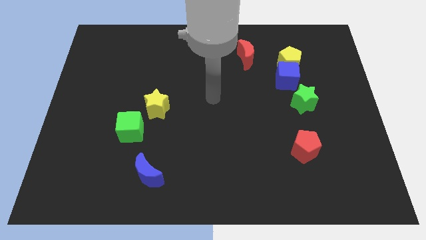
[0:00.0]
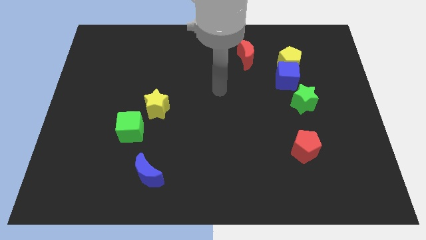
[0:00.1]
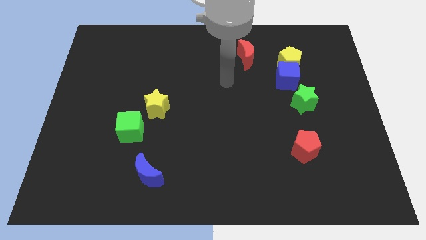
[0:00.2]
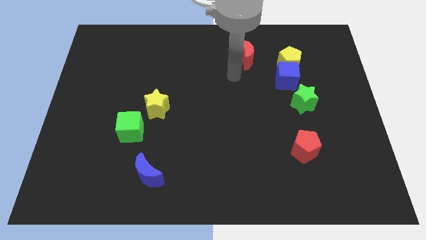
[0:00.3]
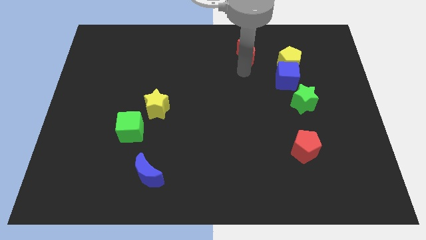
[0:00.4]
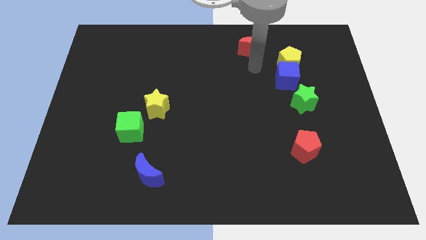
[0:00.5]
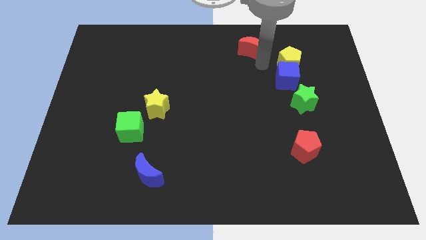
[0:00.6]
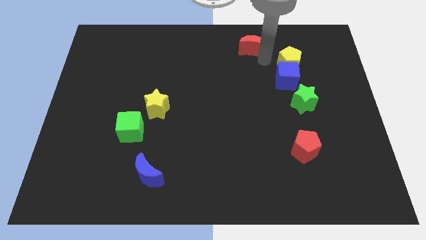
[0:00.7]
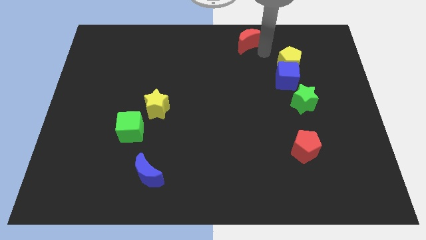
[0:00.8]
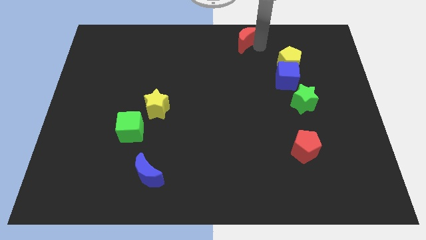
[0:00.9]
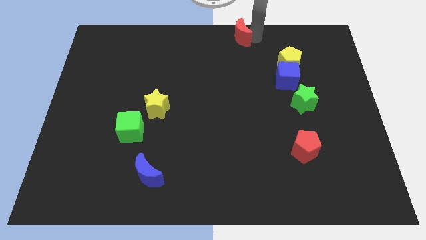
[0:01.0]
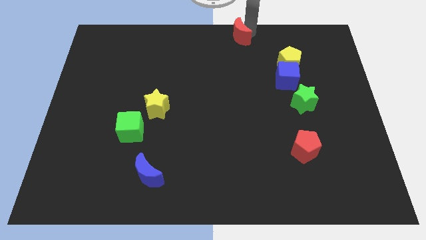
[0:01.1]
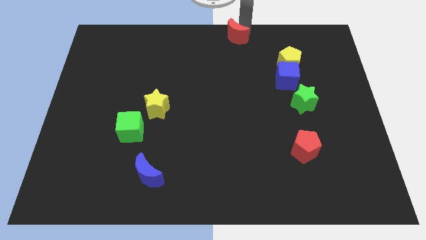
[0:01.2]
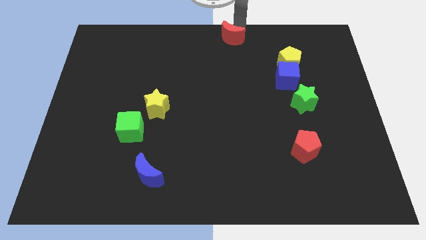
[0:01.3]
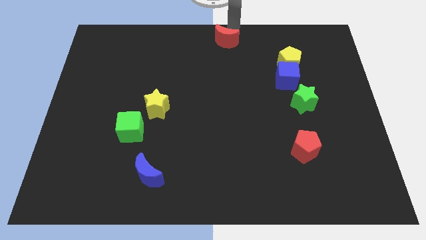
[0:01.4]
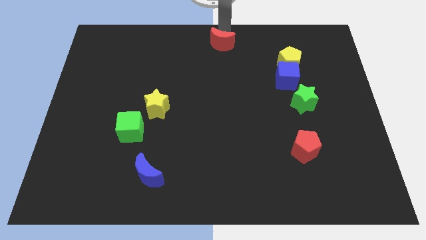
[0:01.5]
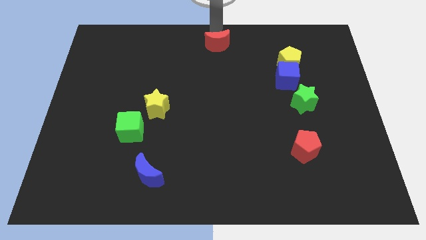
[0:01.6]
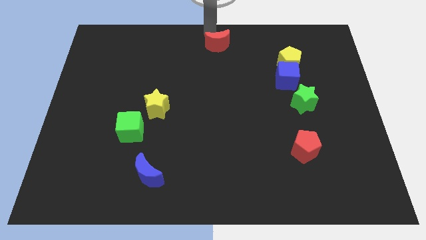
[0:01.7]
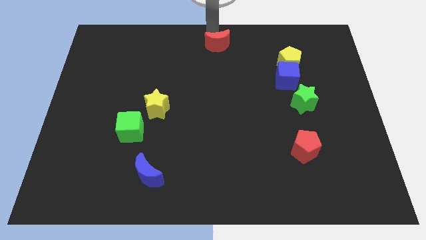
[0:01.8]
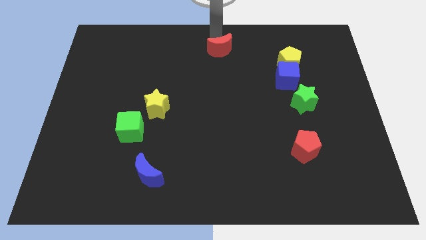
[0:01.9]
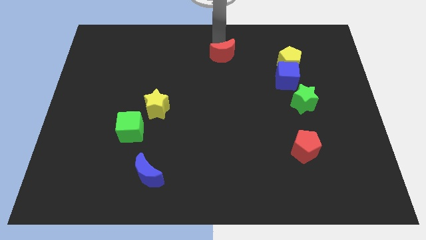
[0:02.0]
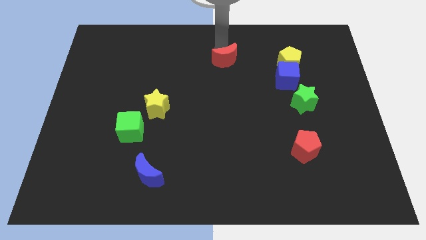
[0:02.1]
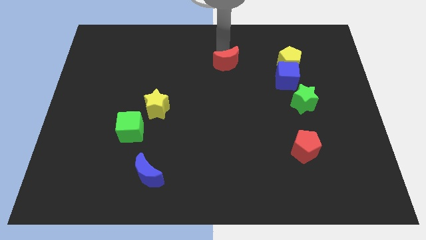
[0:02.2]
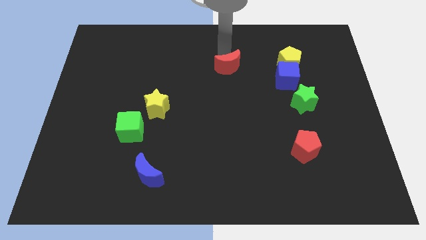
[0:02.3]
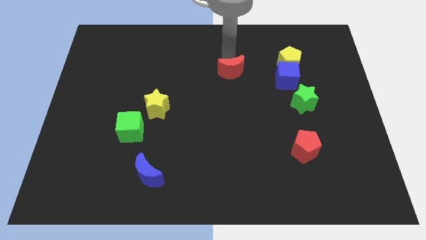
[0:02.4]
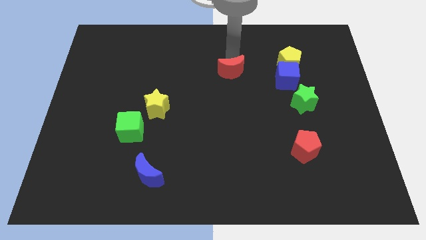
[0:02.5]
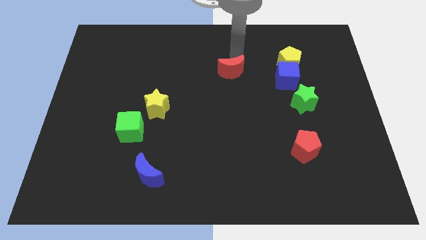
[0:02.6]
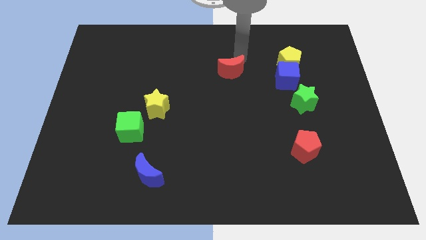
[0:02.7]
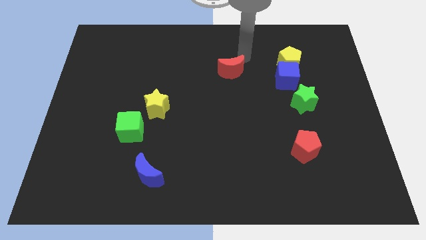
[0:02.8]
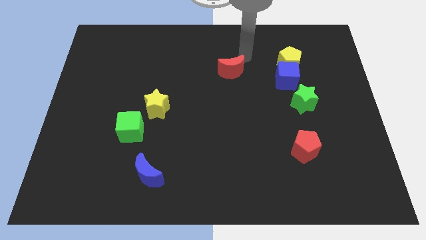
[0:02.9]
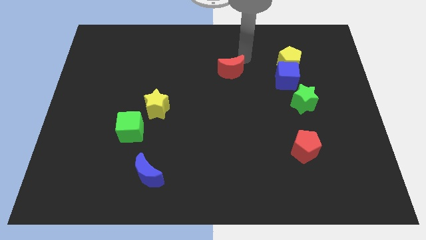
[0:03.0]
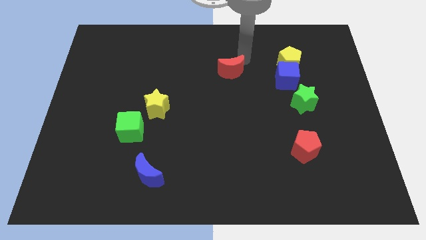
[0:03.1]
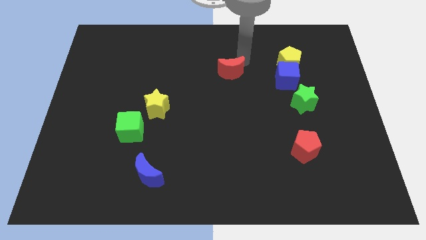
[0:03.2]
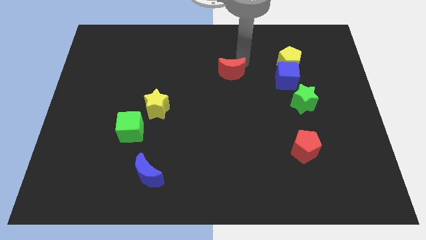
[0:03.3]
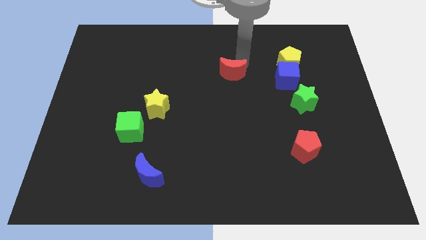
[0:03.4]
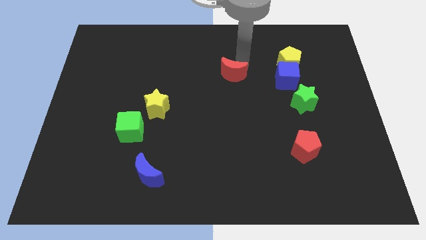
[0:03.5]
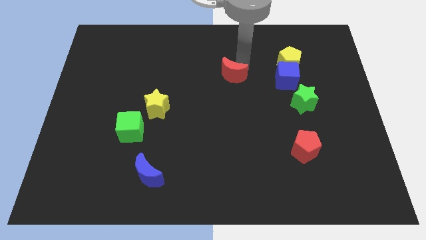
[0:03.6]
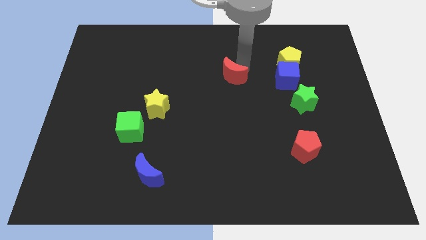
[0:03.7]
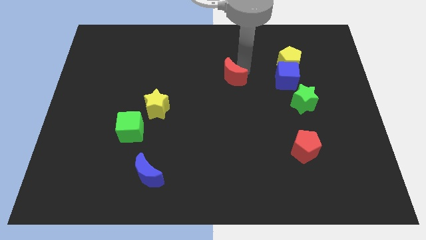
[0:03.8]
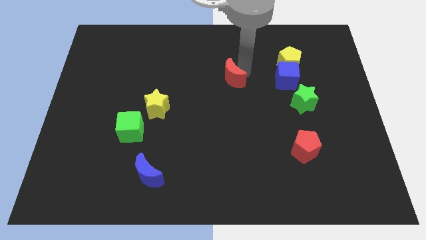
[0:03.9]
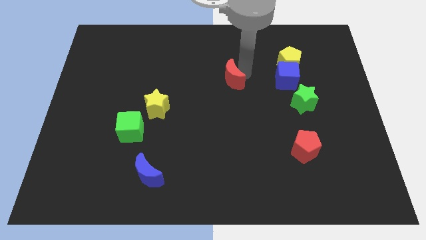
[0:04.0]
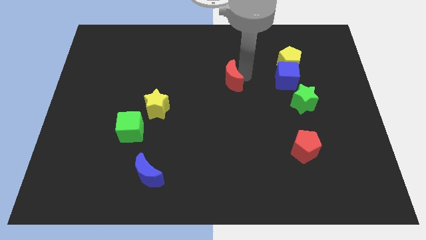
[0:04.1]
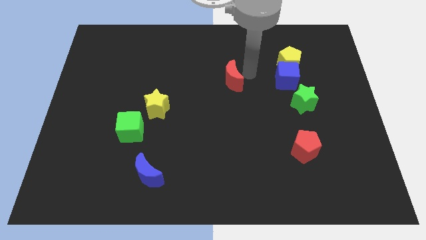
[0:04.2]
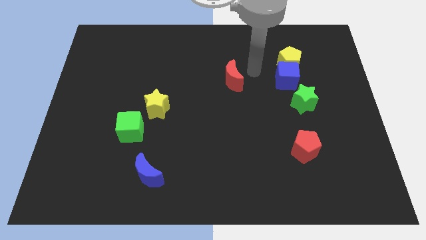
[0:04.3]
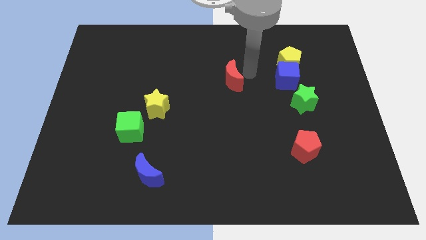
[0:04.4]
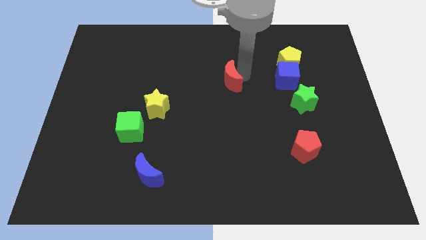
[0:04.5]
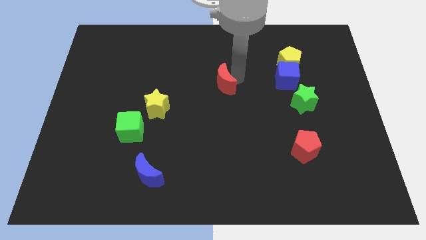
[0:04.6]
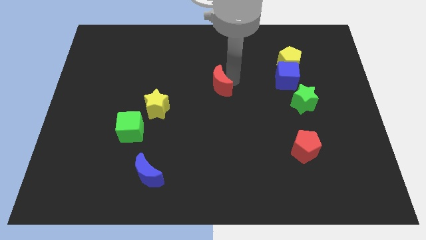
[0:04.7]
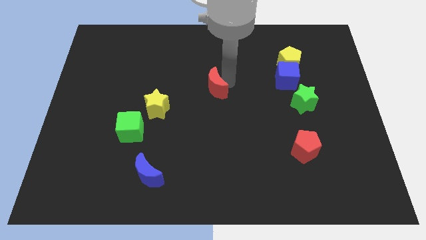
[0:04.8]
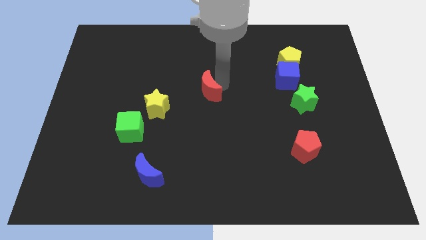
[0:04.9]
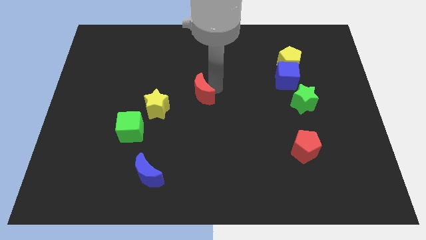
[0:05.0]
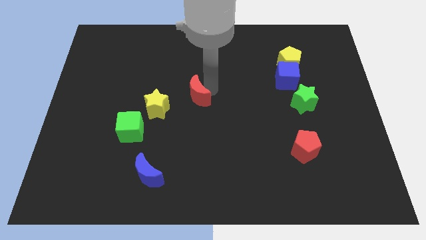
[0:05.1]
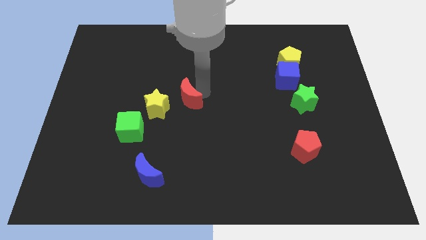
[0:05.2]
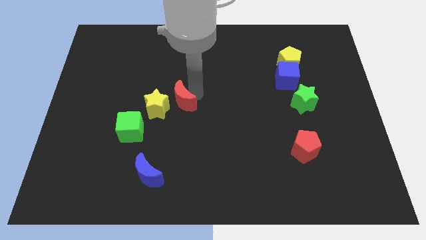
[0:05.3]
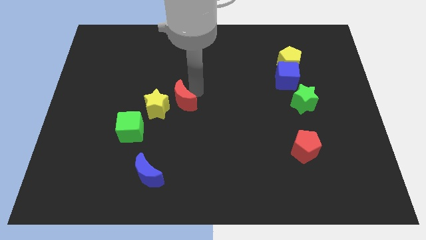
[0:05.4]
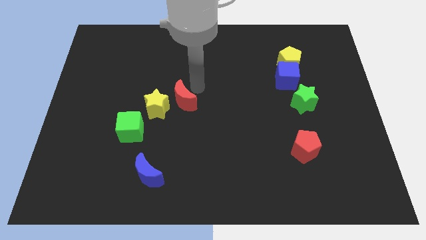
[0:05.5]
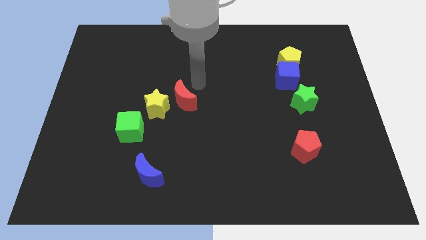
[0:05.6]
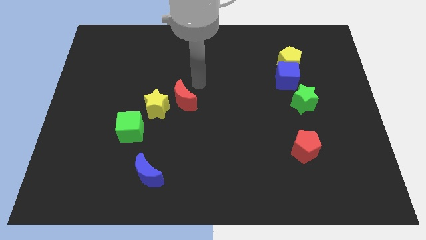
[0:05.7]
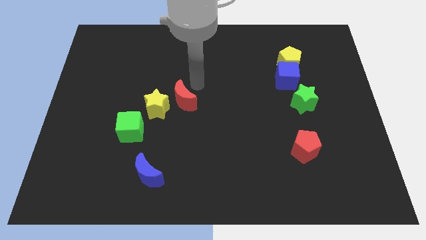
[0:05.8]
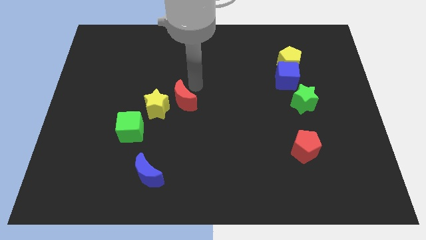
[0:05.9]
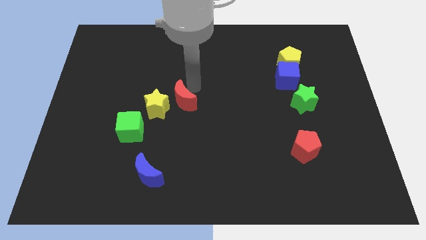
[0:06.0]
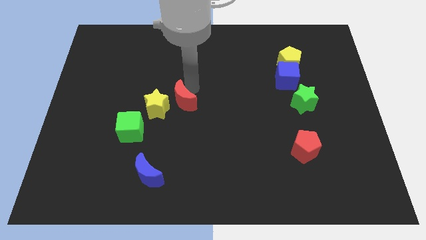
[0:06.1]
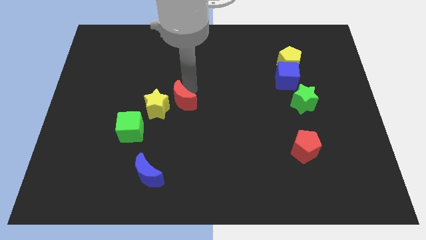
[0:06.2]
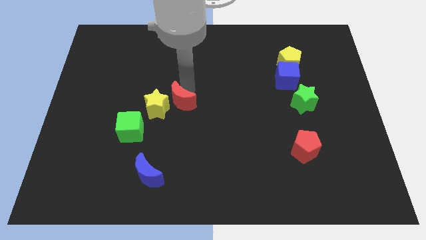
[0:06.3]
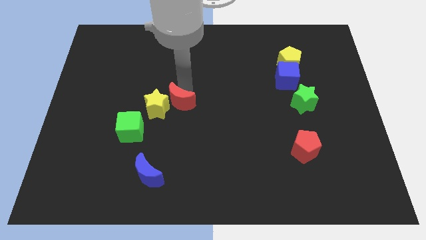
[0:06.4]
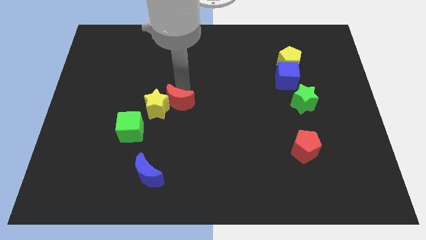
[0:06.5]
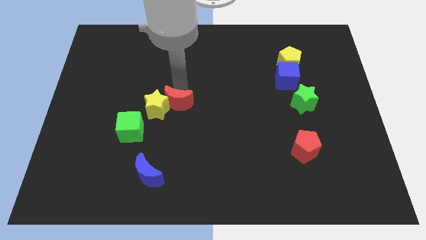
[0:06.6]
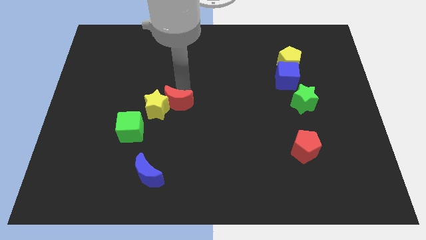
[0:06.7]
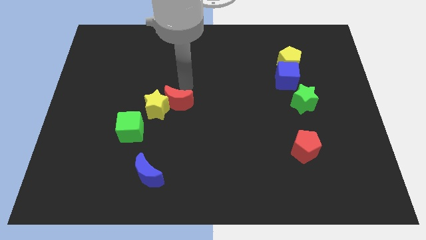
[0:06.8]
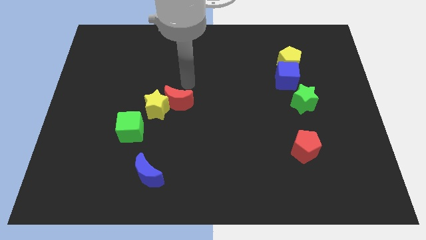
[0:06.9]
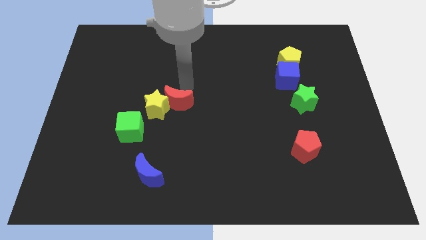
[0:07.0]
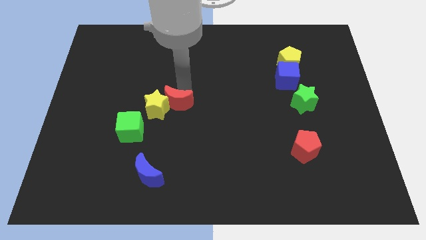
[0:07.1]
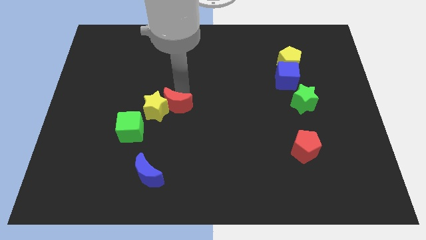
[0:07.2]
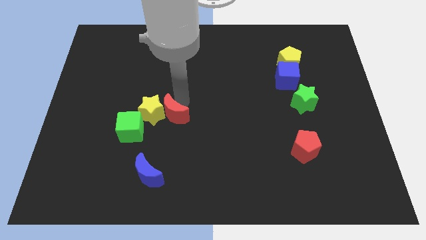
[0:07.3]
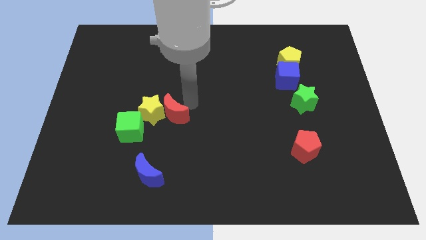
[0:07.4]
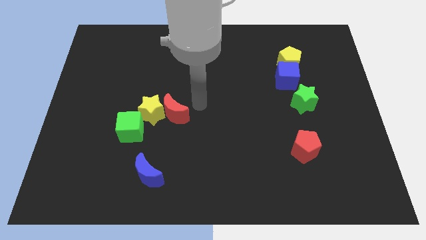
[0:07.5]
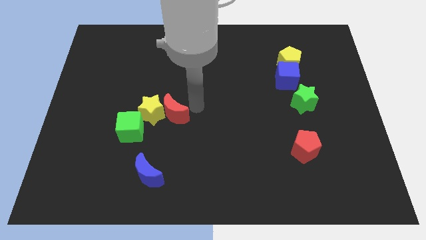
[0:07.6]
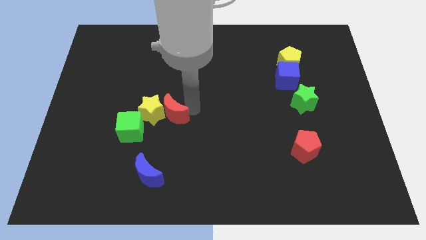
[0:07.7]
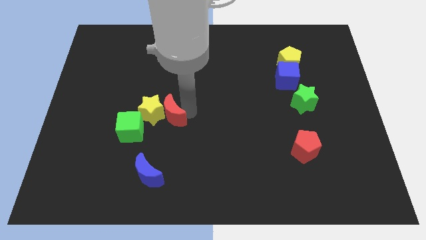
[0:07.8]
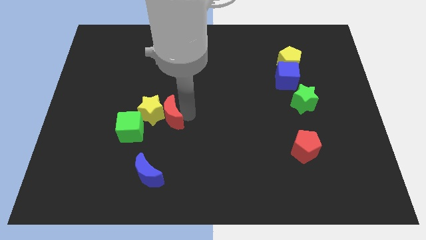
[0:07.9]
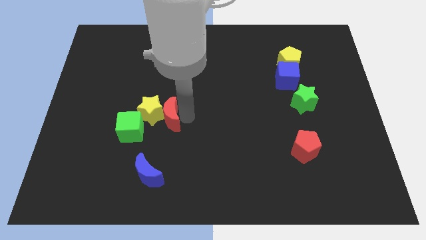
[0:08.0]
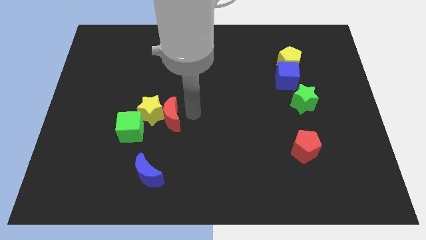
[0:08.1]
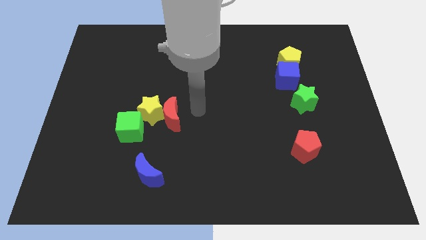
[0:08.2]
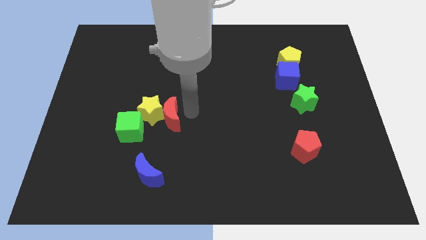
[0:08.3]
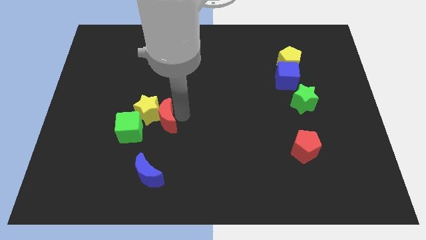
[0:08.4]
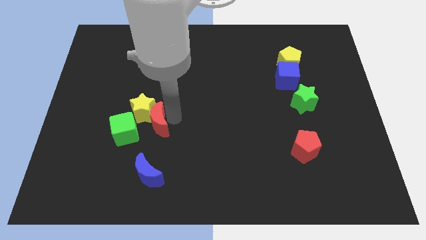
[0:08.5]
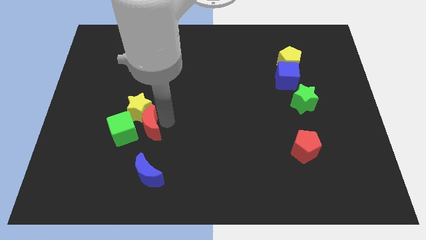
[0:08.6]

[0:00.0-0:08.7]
slide the red moon to the green cube
